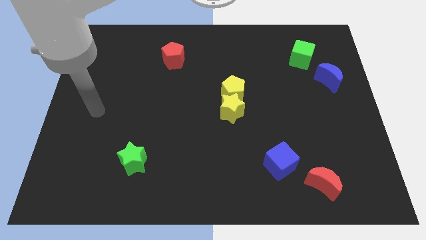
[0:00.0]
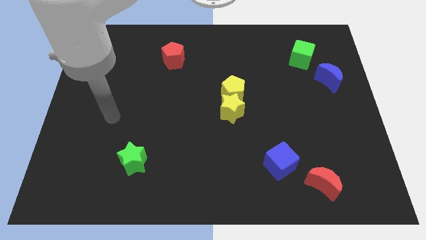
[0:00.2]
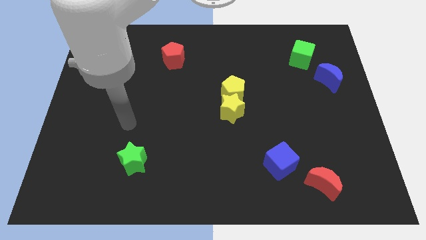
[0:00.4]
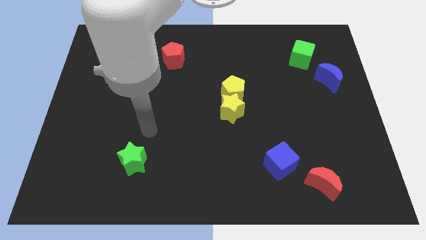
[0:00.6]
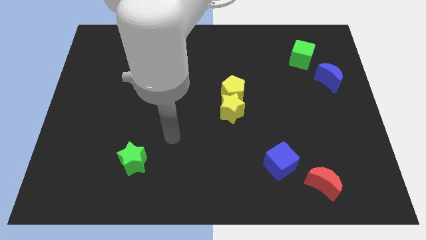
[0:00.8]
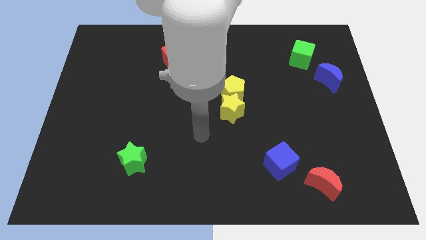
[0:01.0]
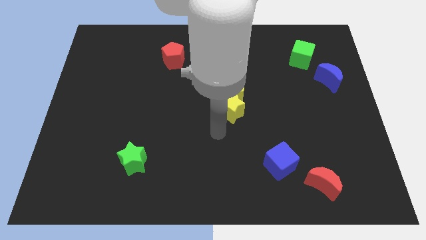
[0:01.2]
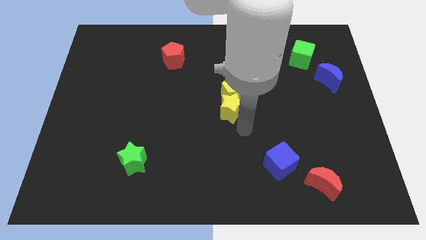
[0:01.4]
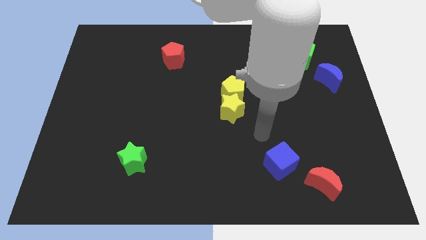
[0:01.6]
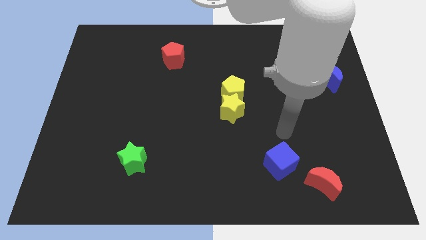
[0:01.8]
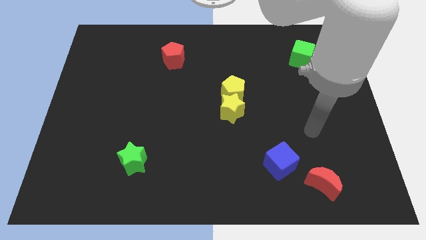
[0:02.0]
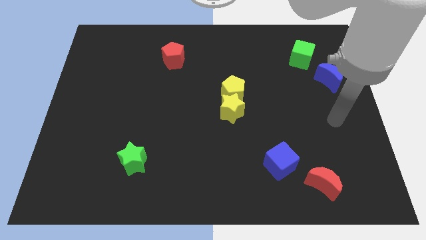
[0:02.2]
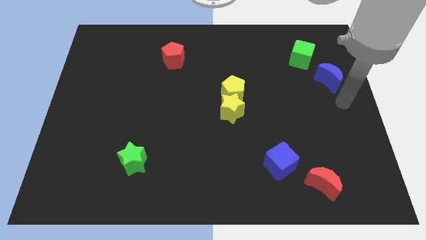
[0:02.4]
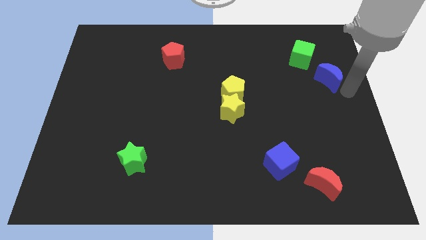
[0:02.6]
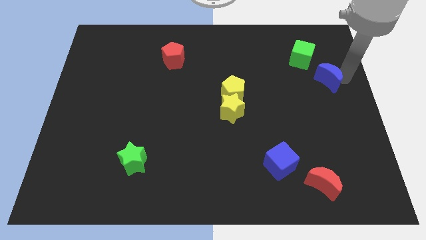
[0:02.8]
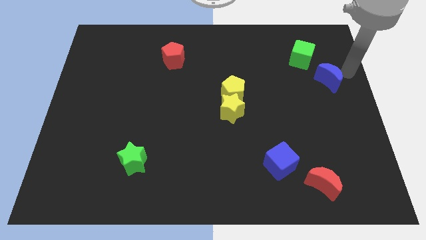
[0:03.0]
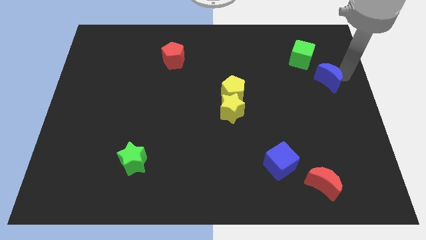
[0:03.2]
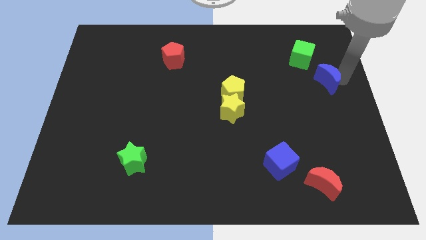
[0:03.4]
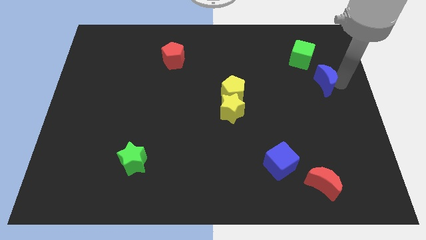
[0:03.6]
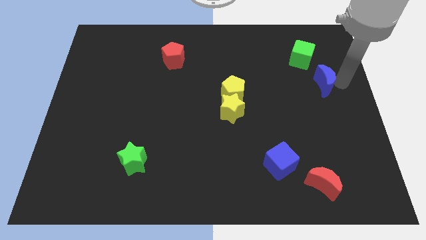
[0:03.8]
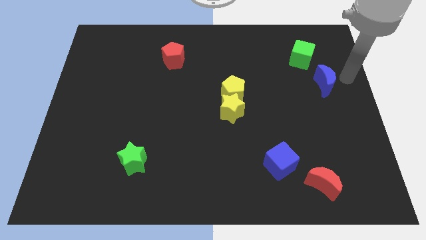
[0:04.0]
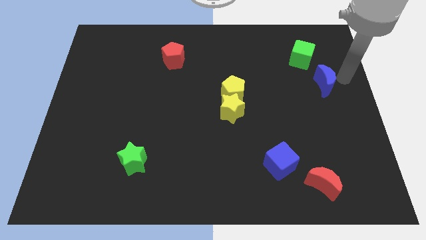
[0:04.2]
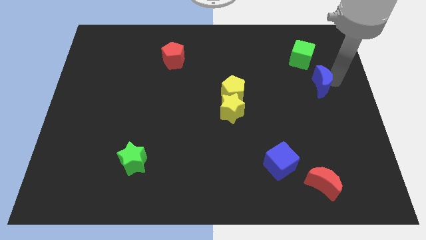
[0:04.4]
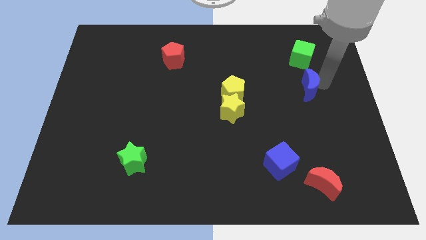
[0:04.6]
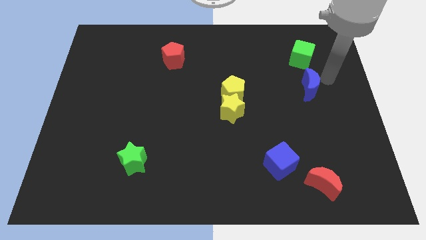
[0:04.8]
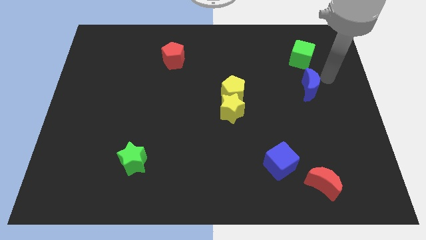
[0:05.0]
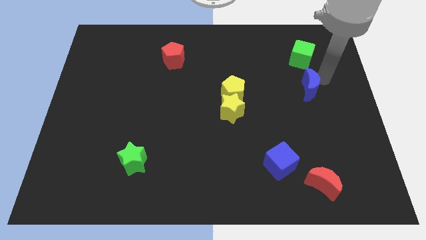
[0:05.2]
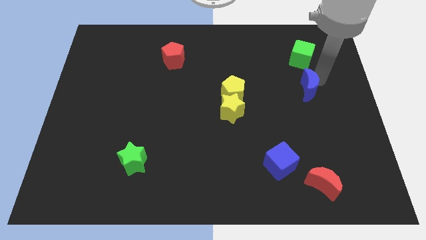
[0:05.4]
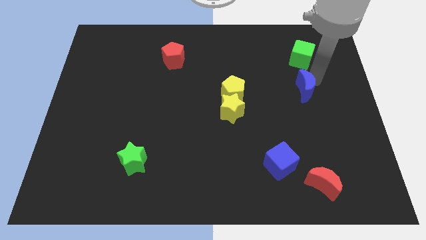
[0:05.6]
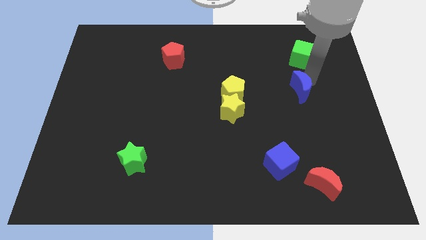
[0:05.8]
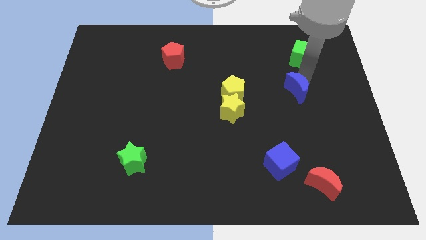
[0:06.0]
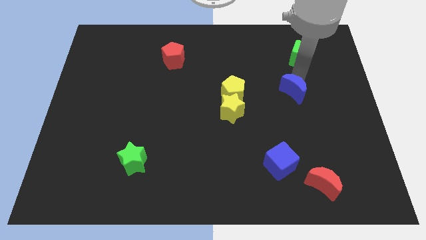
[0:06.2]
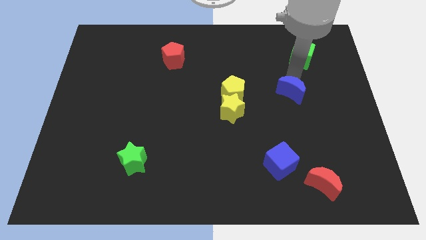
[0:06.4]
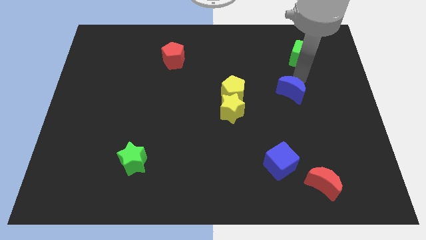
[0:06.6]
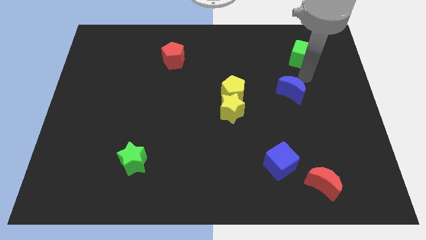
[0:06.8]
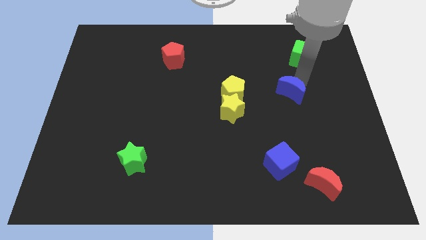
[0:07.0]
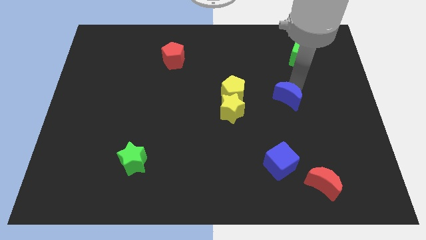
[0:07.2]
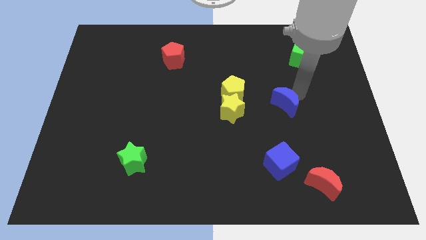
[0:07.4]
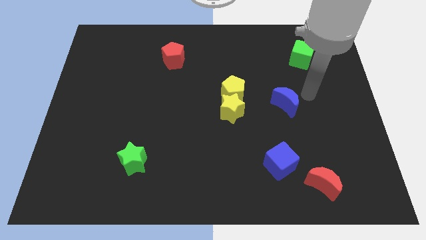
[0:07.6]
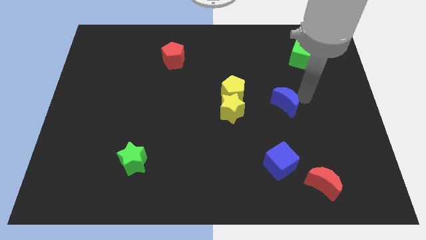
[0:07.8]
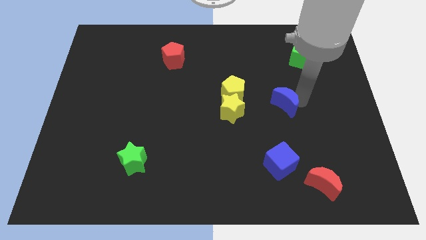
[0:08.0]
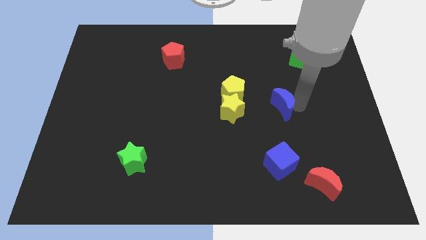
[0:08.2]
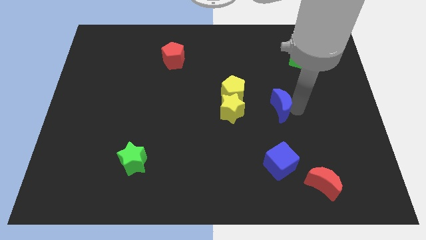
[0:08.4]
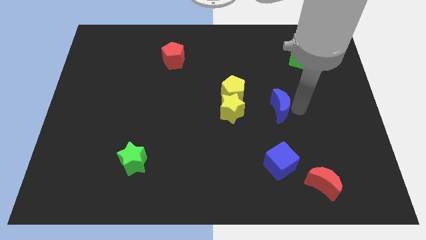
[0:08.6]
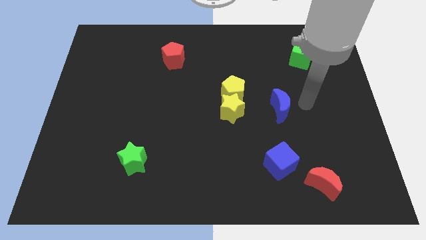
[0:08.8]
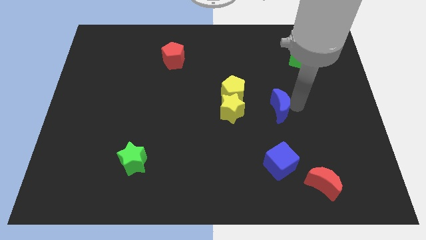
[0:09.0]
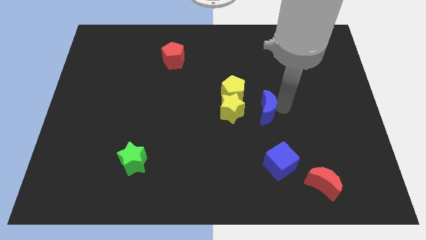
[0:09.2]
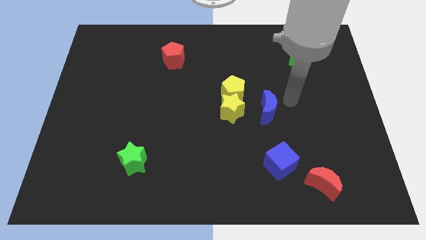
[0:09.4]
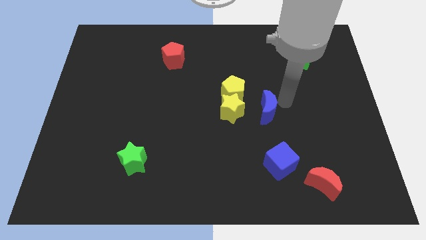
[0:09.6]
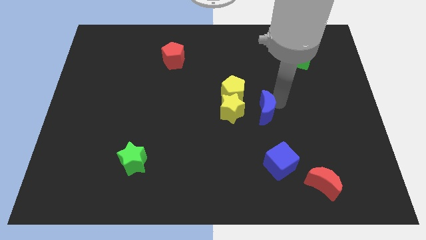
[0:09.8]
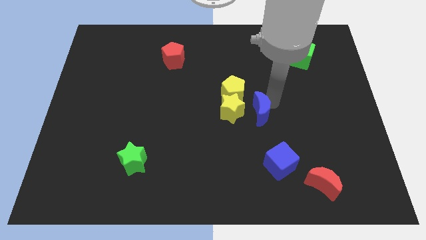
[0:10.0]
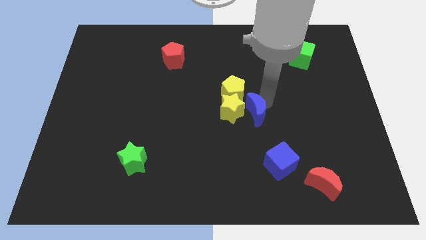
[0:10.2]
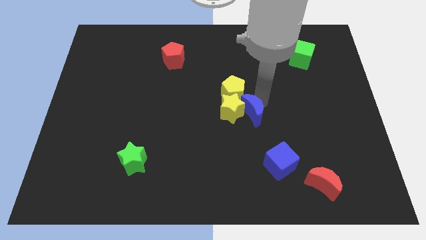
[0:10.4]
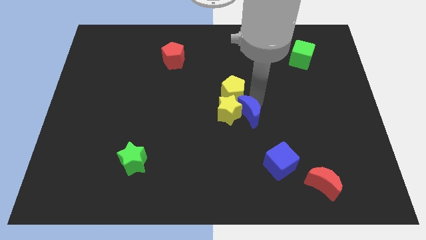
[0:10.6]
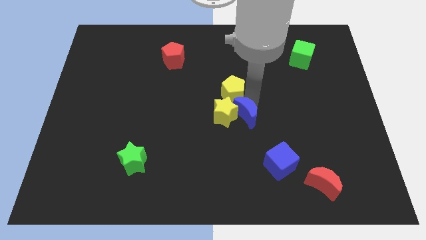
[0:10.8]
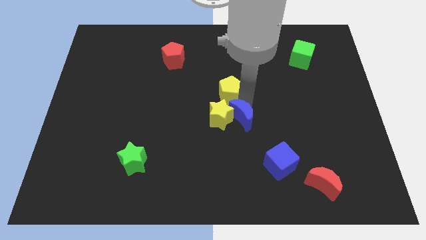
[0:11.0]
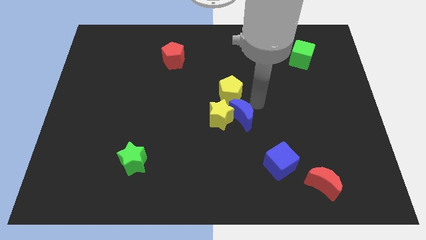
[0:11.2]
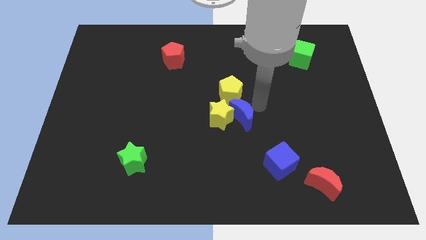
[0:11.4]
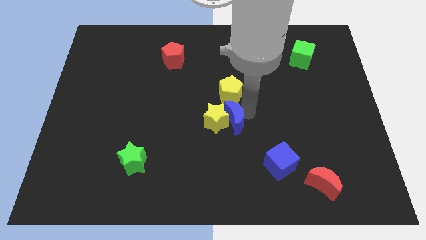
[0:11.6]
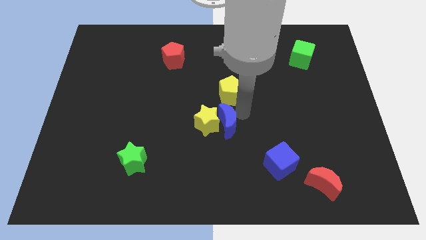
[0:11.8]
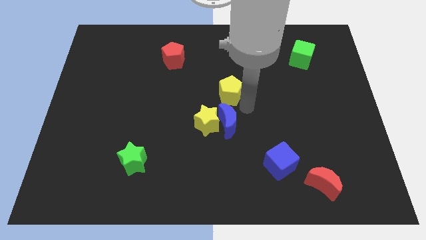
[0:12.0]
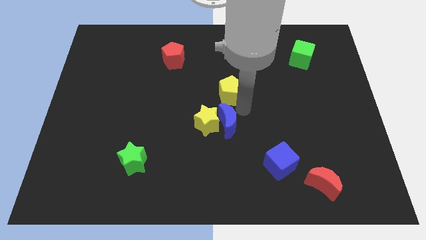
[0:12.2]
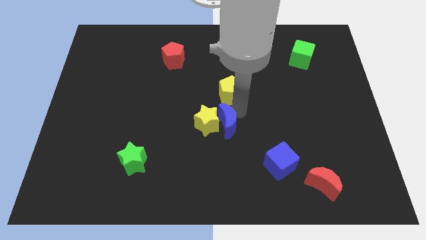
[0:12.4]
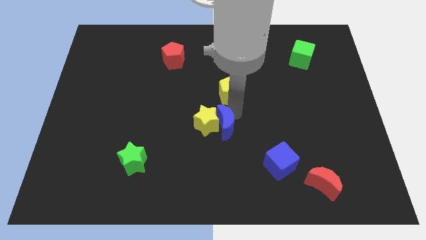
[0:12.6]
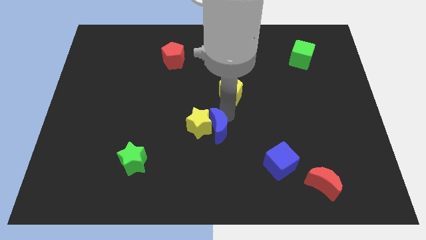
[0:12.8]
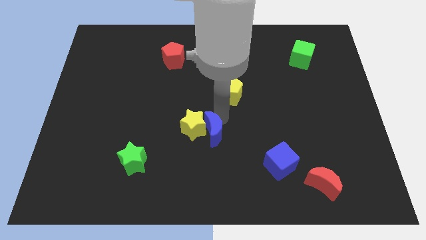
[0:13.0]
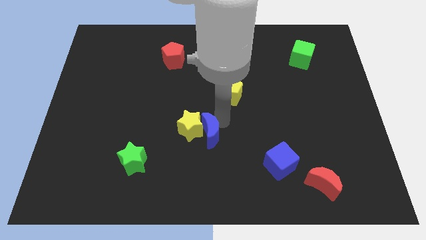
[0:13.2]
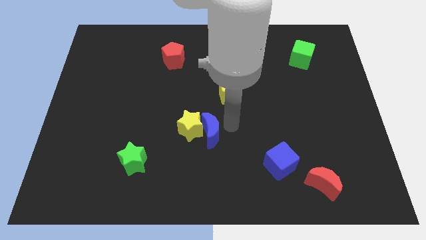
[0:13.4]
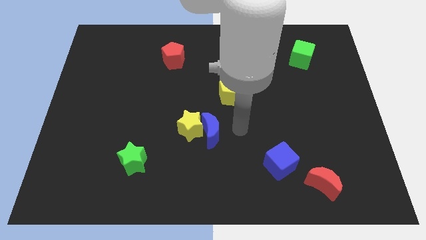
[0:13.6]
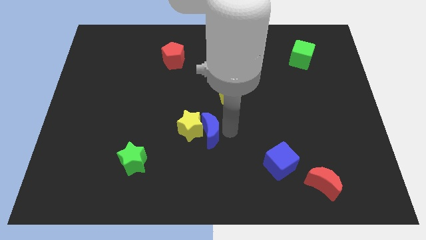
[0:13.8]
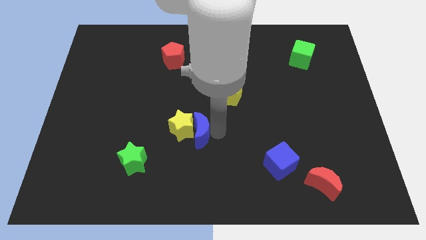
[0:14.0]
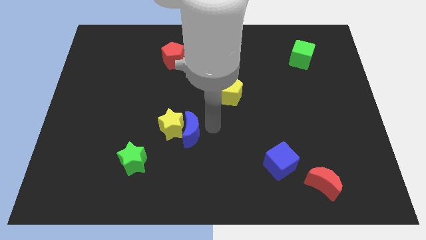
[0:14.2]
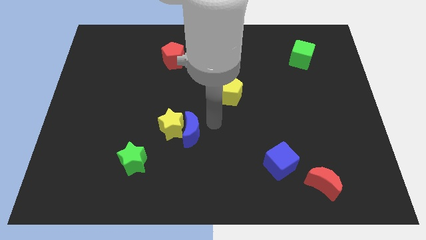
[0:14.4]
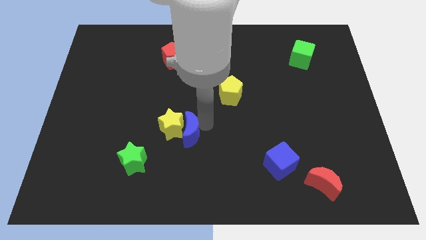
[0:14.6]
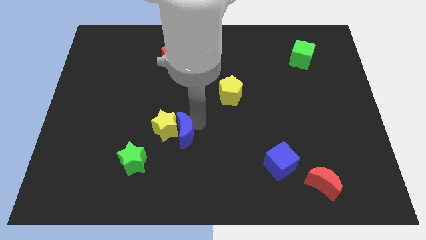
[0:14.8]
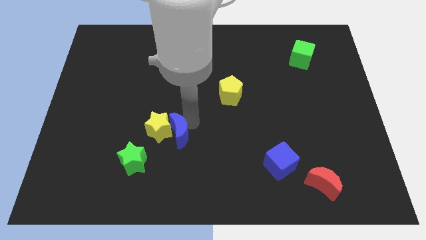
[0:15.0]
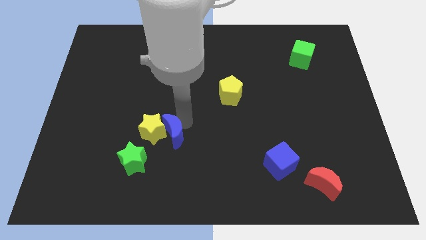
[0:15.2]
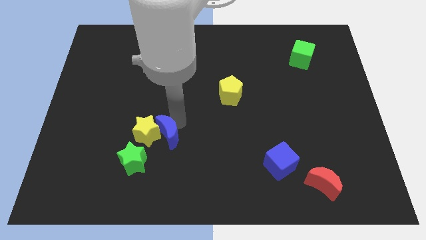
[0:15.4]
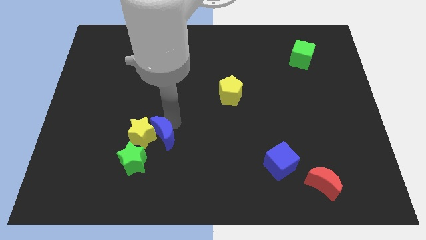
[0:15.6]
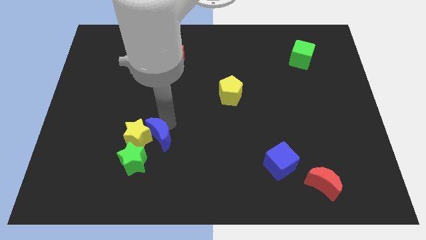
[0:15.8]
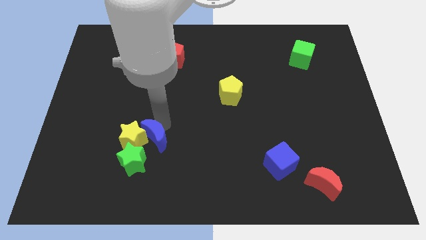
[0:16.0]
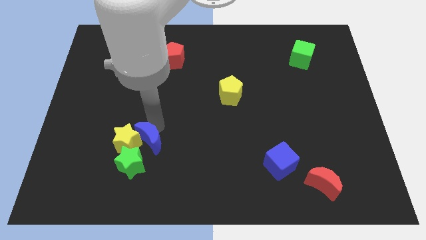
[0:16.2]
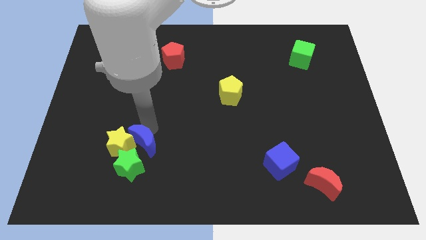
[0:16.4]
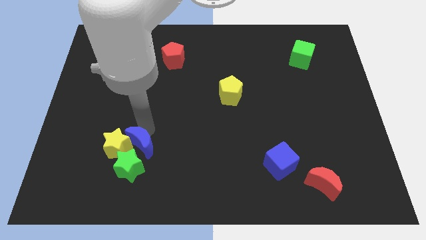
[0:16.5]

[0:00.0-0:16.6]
slide the blue moon to the green star
